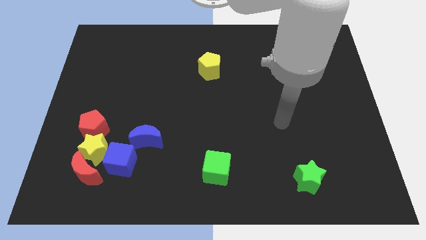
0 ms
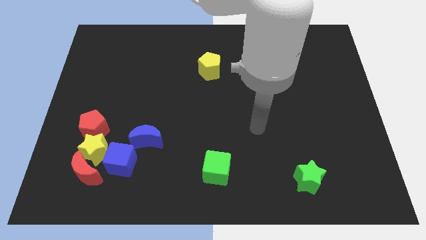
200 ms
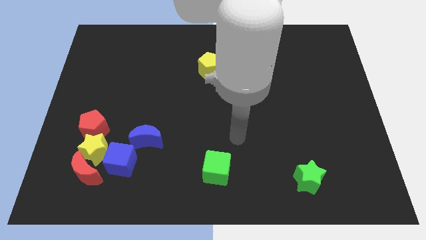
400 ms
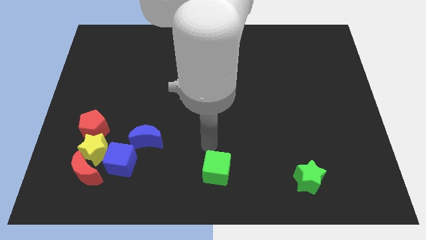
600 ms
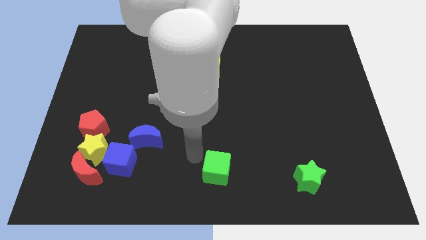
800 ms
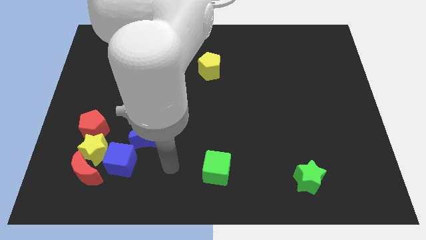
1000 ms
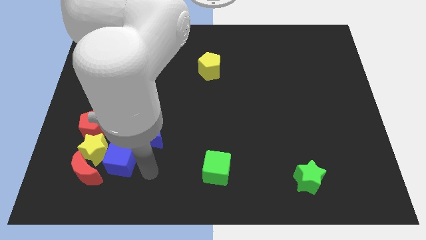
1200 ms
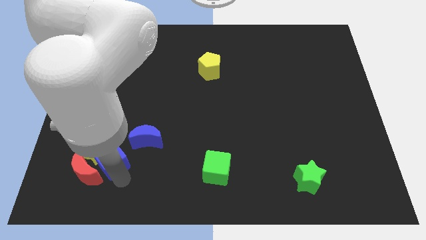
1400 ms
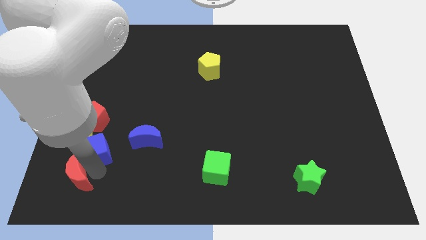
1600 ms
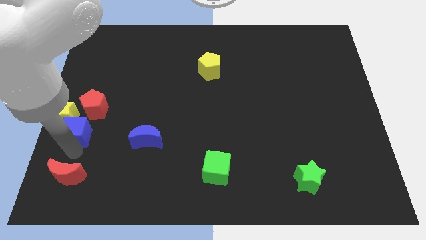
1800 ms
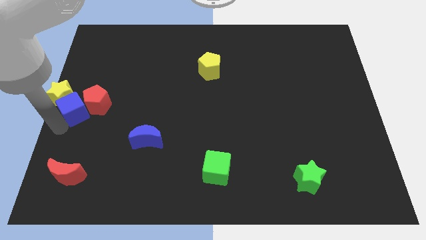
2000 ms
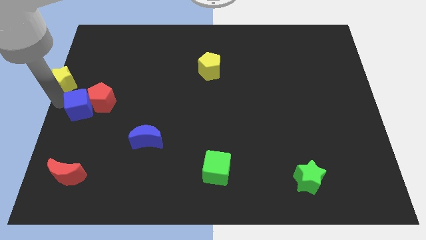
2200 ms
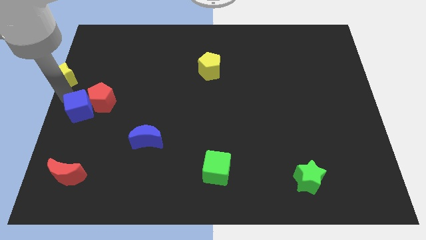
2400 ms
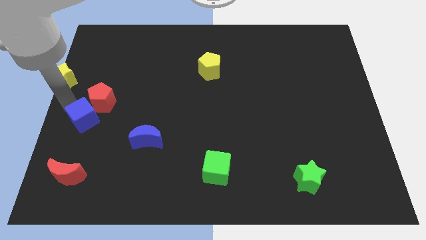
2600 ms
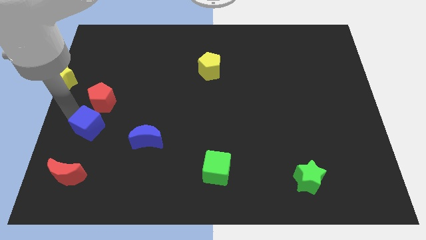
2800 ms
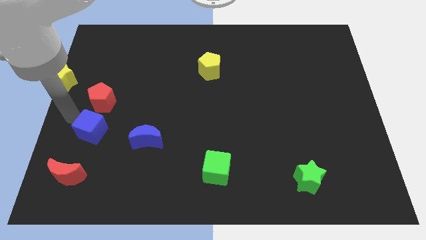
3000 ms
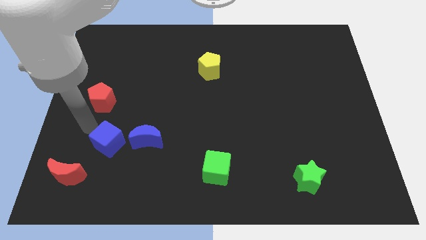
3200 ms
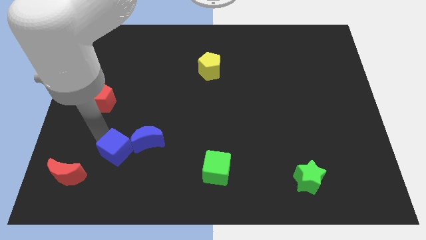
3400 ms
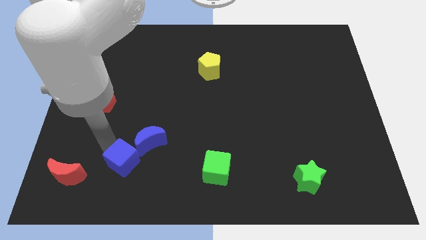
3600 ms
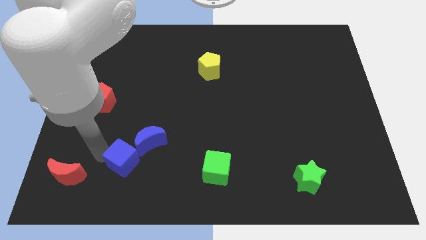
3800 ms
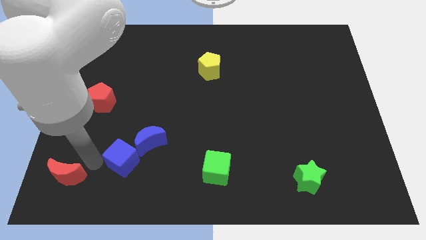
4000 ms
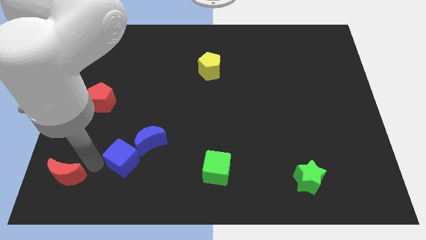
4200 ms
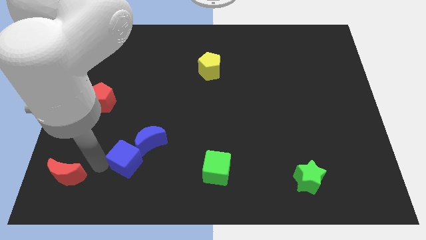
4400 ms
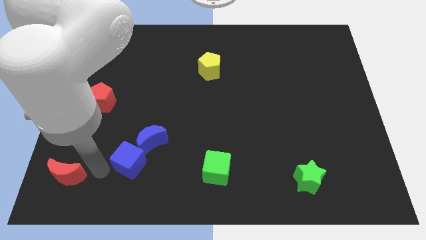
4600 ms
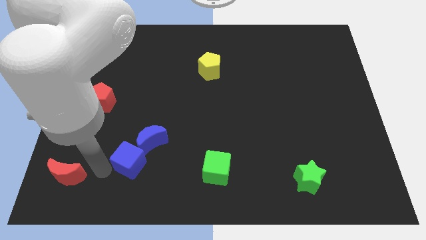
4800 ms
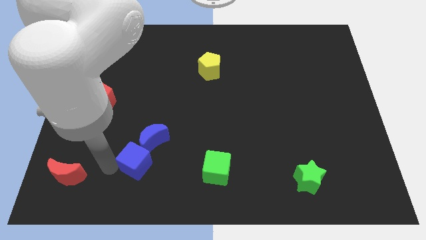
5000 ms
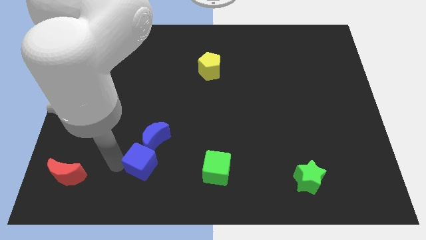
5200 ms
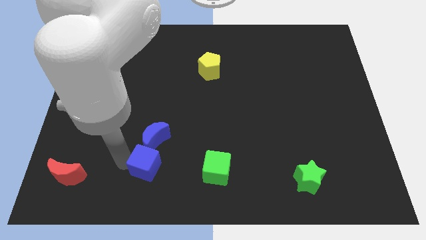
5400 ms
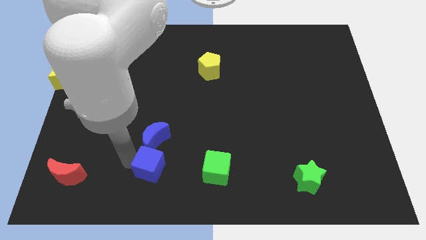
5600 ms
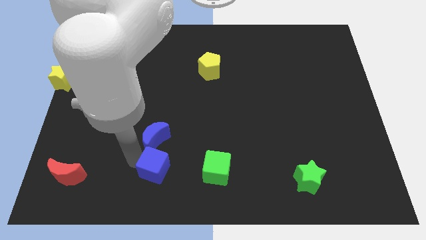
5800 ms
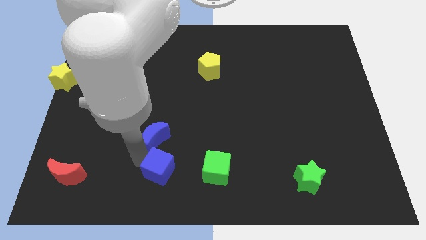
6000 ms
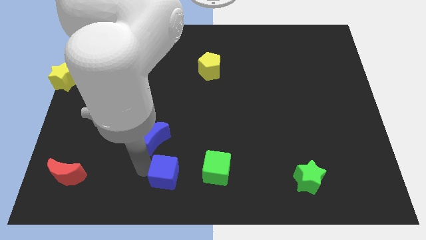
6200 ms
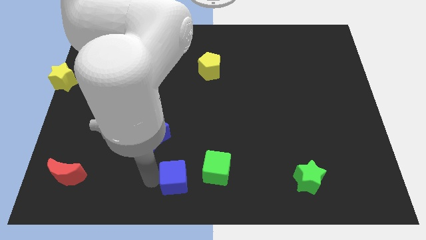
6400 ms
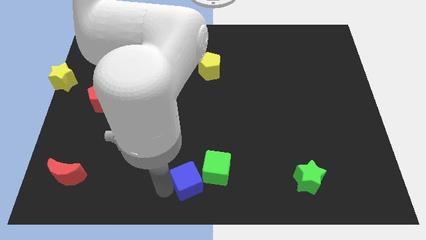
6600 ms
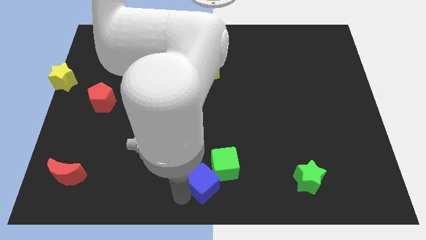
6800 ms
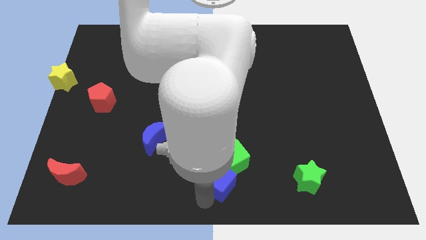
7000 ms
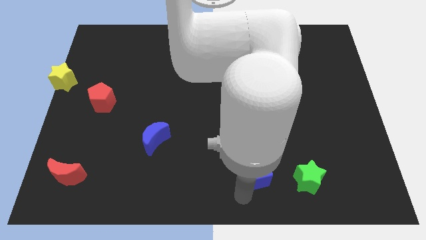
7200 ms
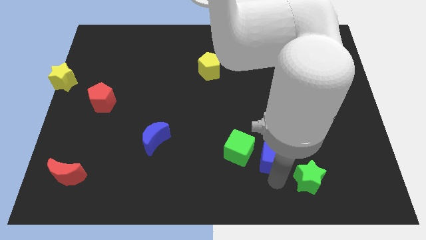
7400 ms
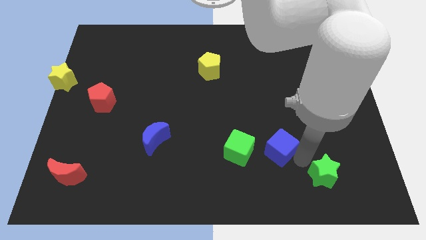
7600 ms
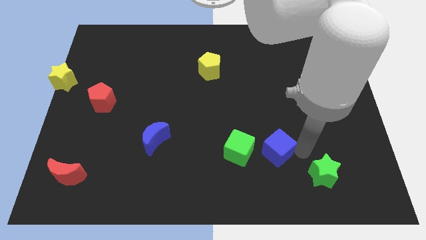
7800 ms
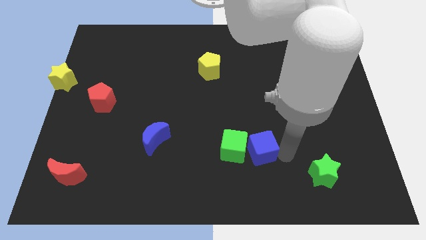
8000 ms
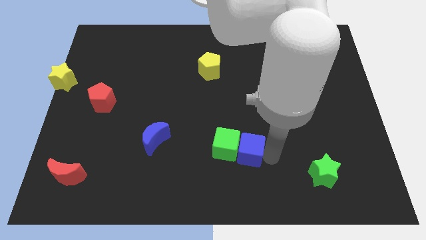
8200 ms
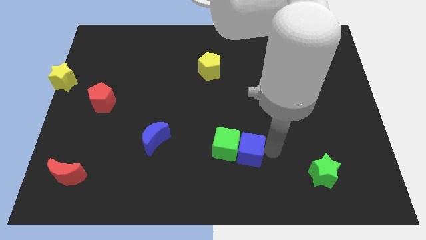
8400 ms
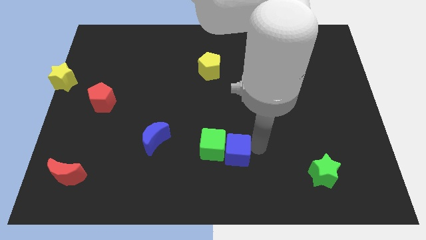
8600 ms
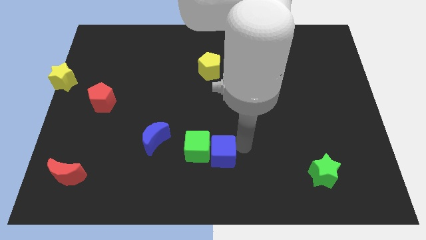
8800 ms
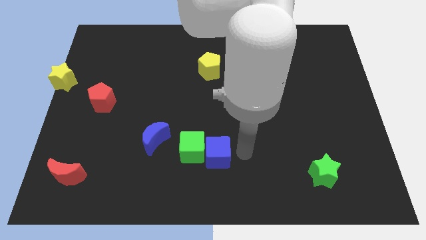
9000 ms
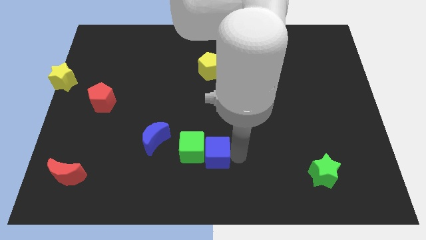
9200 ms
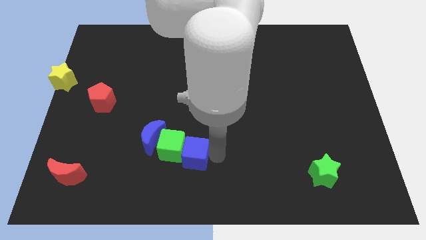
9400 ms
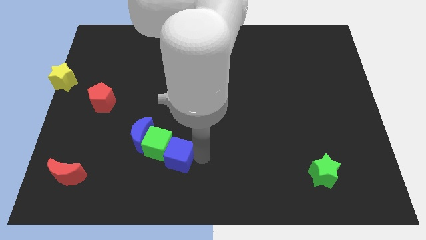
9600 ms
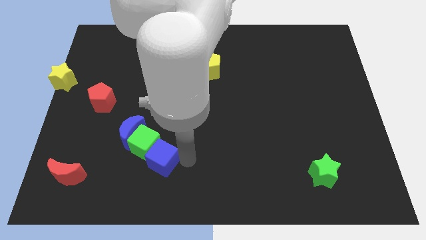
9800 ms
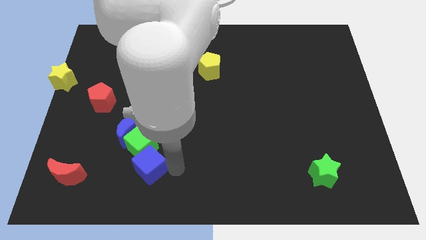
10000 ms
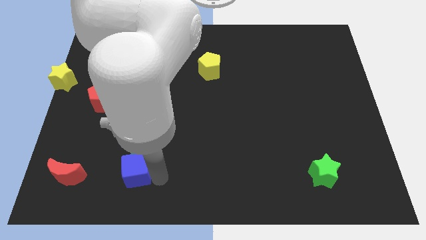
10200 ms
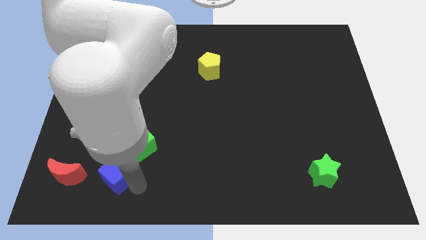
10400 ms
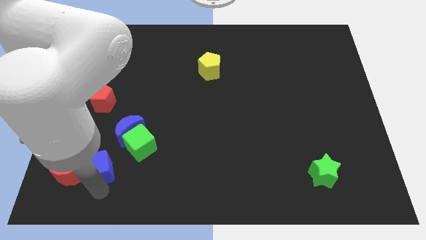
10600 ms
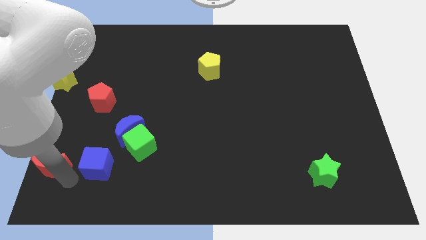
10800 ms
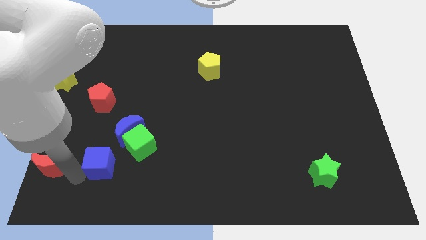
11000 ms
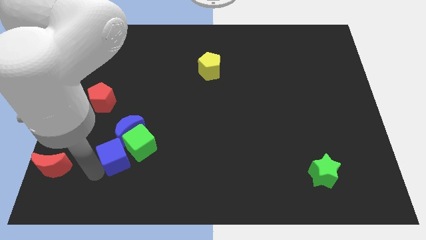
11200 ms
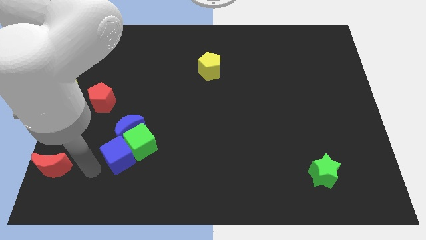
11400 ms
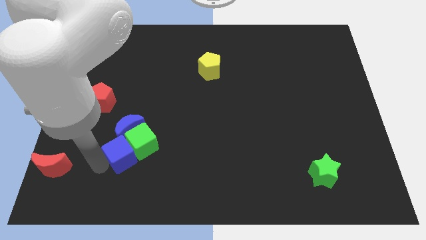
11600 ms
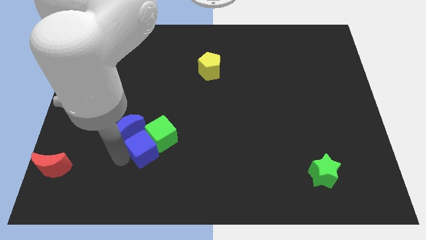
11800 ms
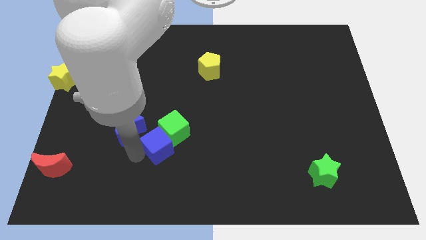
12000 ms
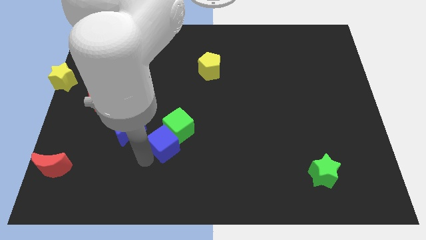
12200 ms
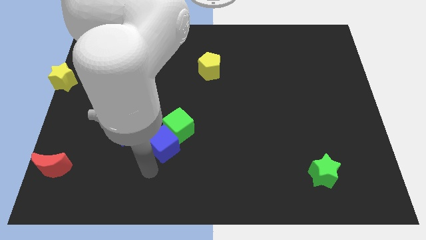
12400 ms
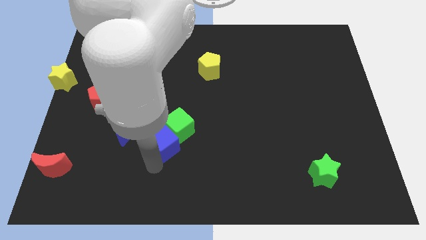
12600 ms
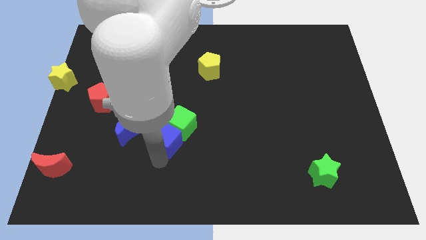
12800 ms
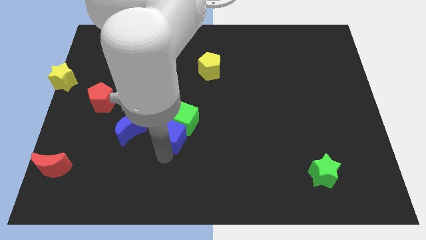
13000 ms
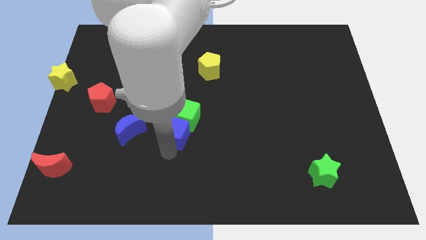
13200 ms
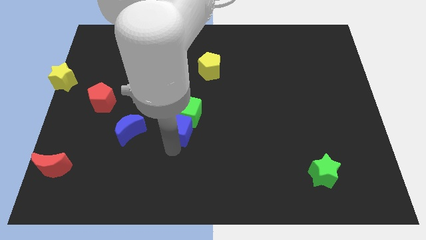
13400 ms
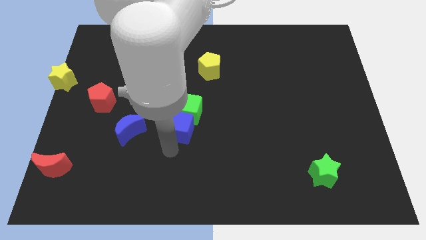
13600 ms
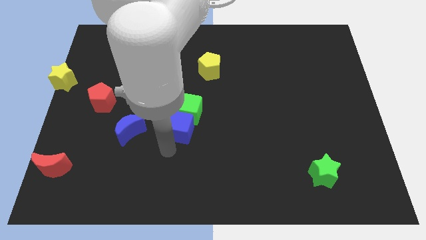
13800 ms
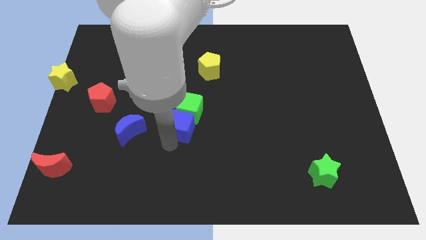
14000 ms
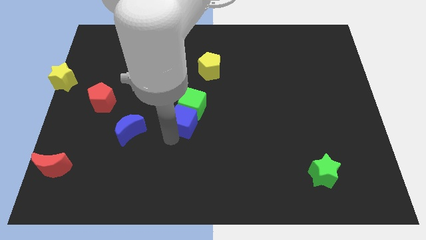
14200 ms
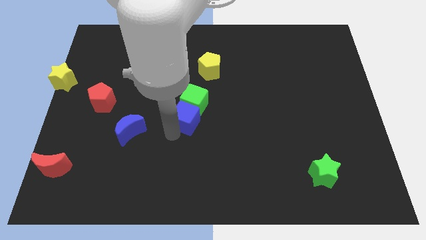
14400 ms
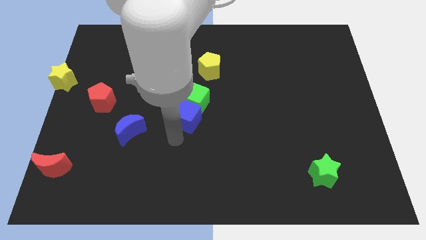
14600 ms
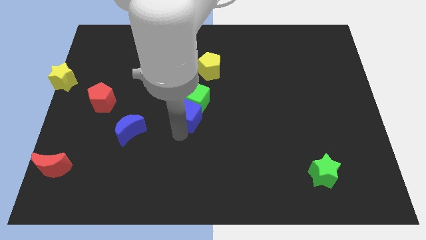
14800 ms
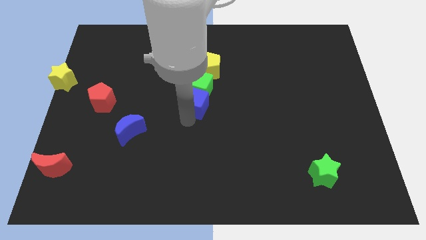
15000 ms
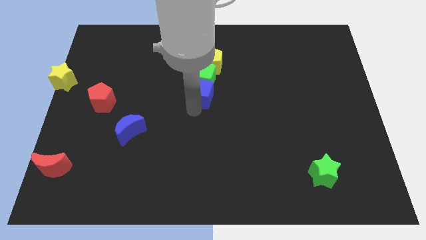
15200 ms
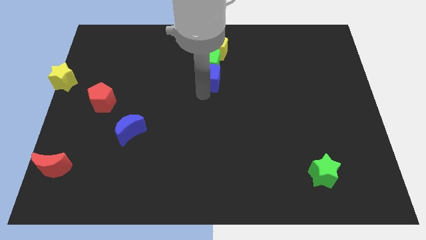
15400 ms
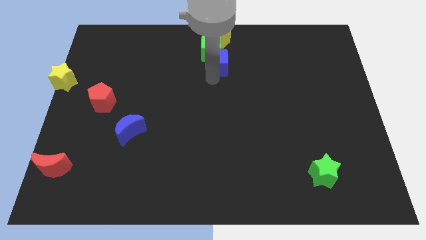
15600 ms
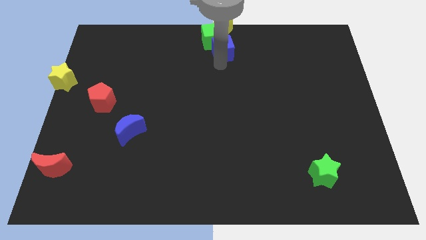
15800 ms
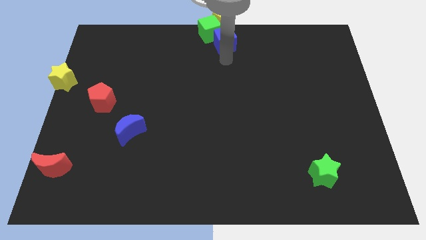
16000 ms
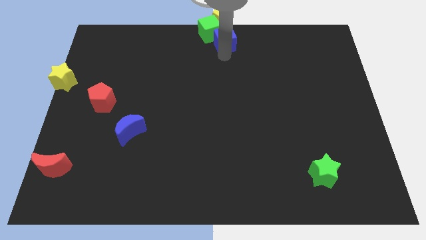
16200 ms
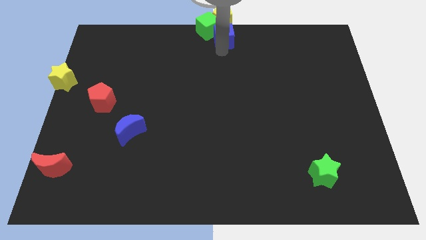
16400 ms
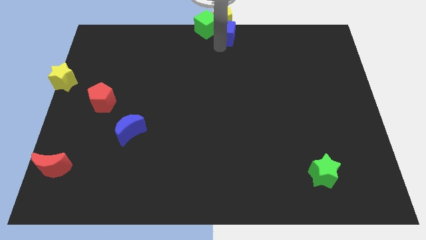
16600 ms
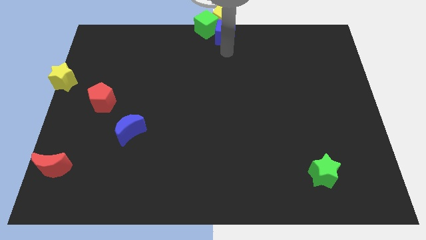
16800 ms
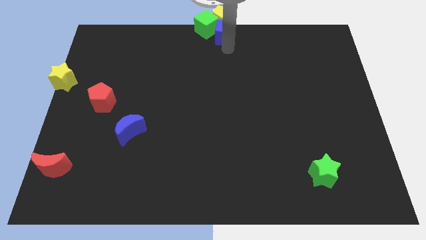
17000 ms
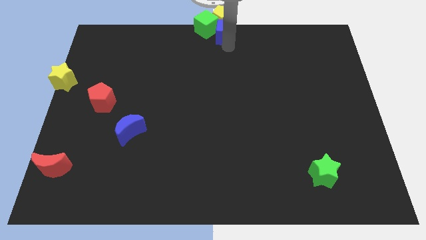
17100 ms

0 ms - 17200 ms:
put the blue cube to the yellow pentagon
